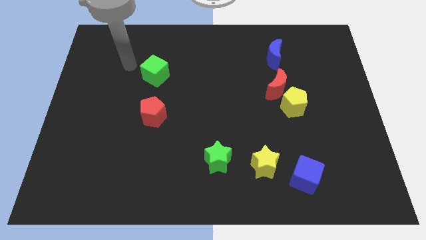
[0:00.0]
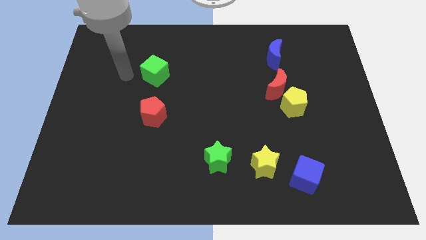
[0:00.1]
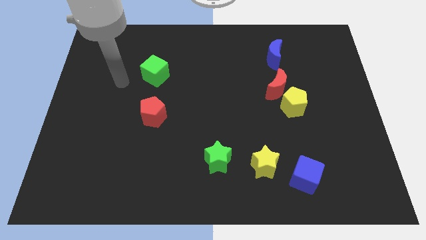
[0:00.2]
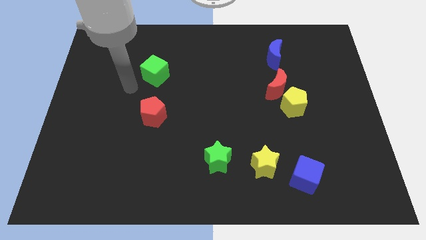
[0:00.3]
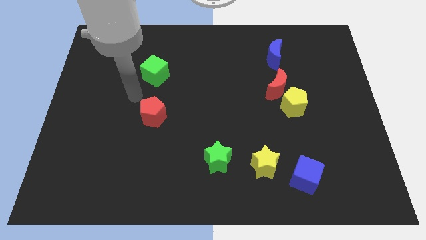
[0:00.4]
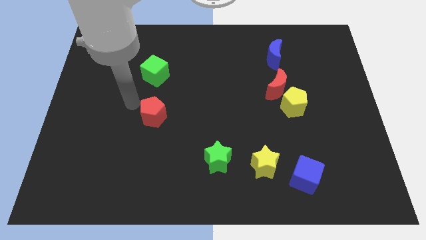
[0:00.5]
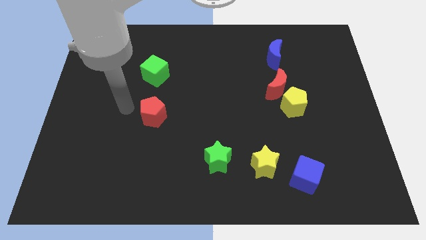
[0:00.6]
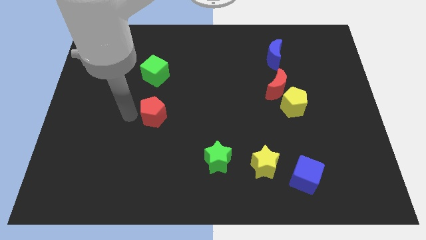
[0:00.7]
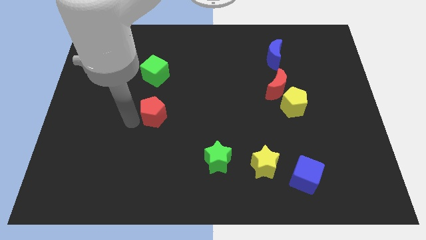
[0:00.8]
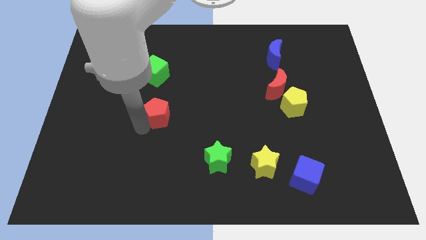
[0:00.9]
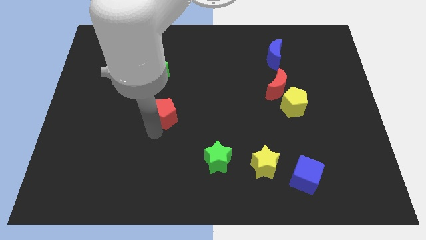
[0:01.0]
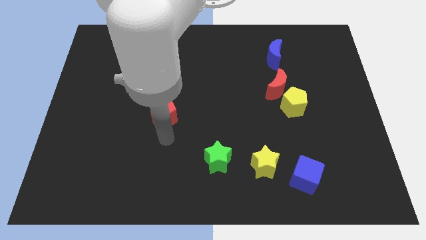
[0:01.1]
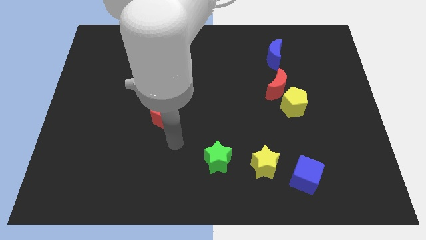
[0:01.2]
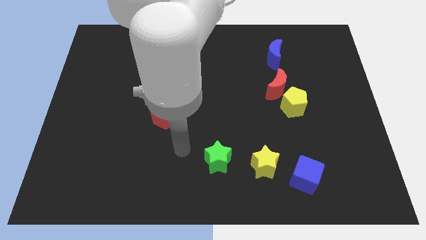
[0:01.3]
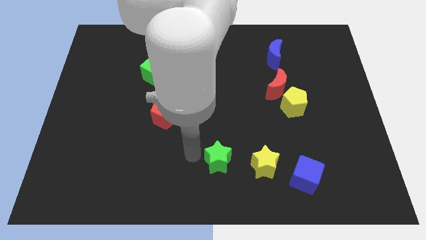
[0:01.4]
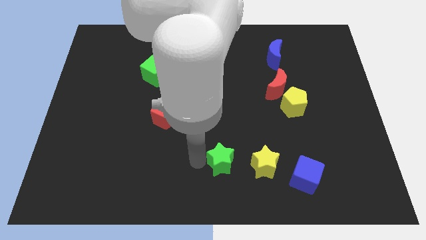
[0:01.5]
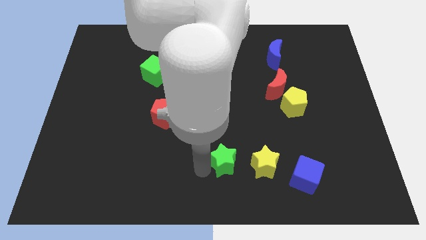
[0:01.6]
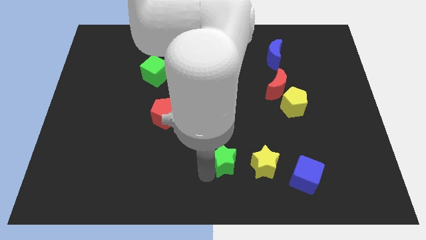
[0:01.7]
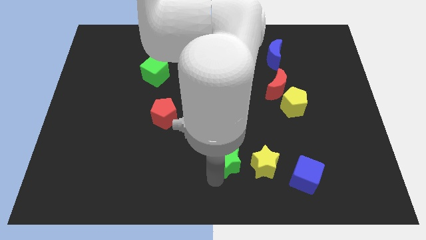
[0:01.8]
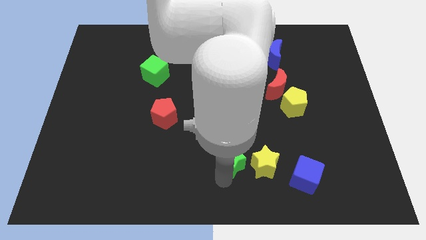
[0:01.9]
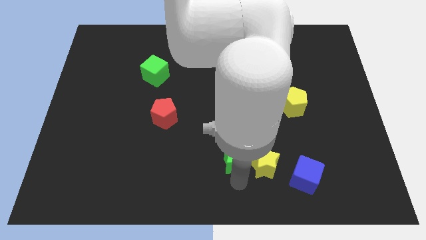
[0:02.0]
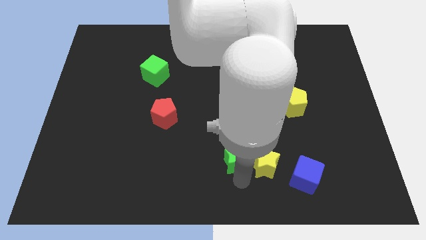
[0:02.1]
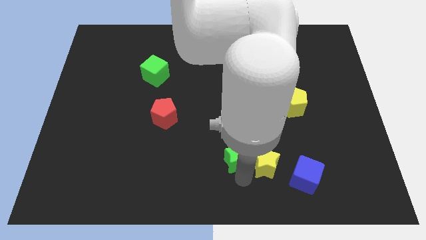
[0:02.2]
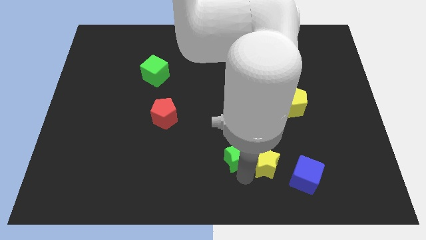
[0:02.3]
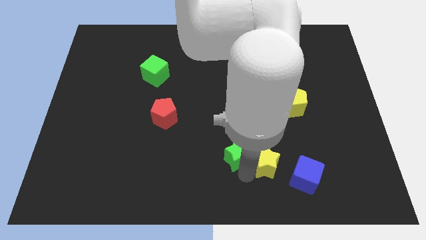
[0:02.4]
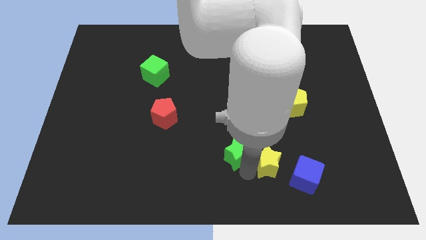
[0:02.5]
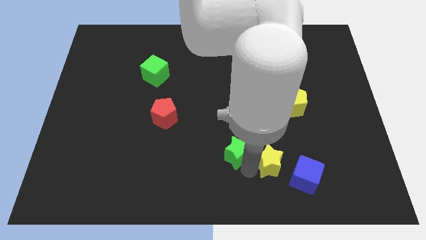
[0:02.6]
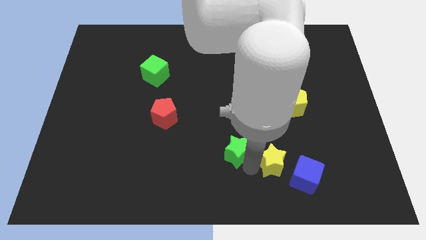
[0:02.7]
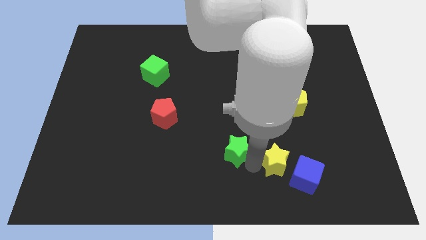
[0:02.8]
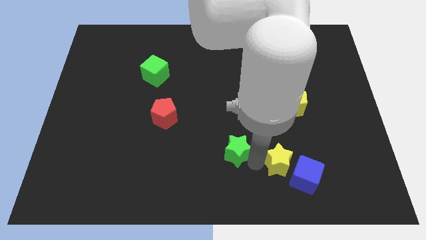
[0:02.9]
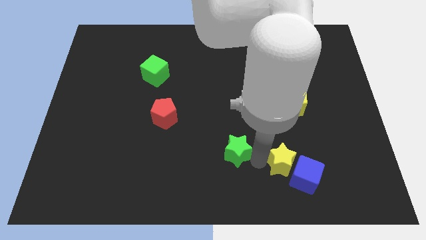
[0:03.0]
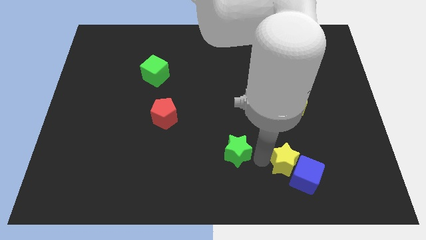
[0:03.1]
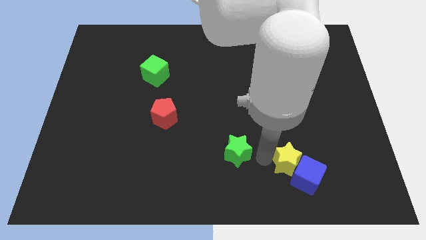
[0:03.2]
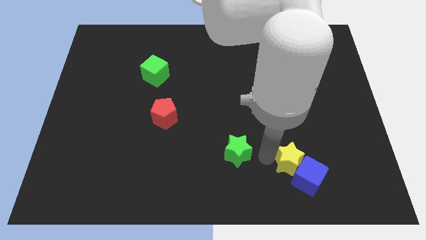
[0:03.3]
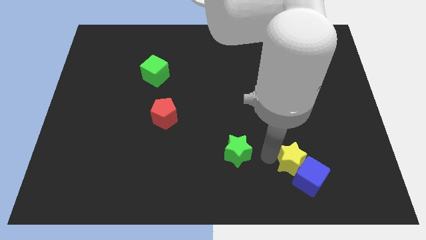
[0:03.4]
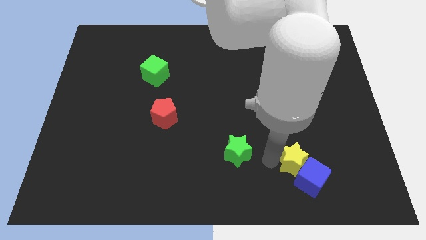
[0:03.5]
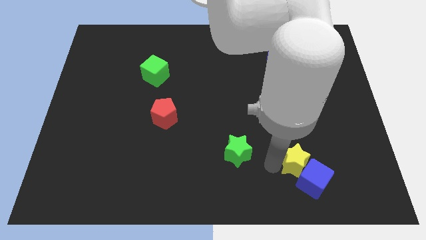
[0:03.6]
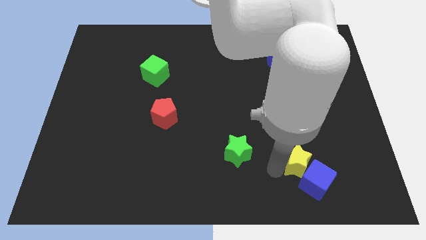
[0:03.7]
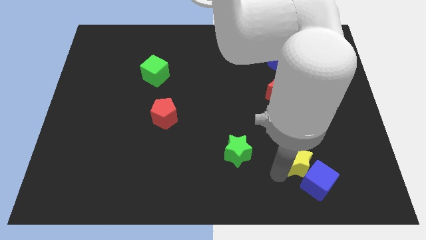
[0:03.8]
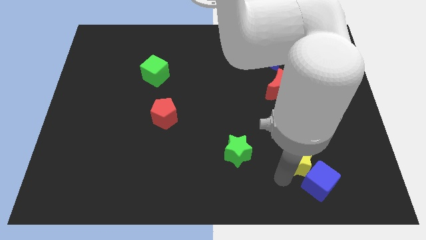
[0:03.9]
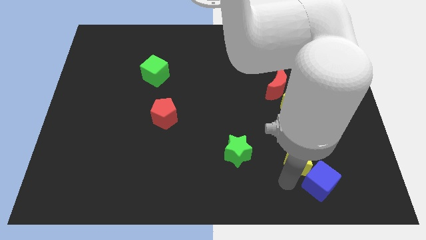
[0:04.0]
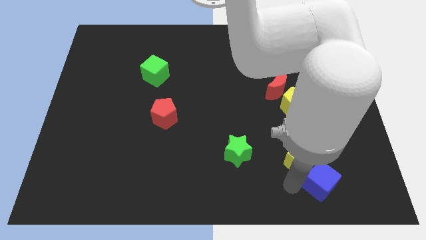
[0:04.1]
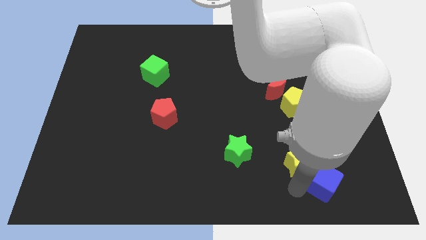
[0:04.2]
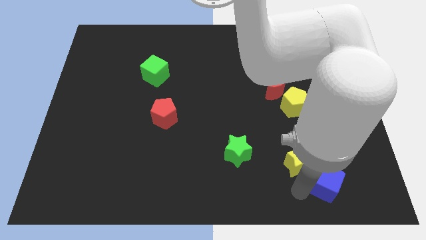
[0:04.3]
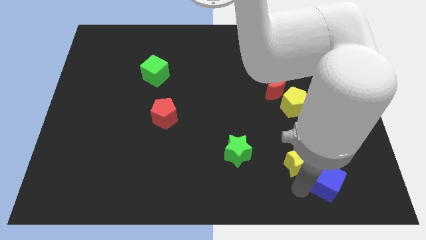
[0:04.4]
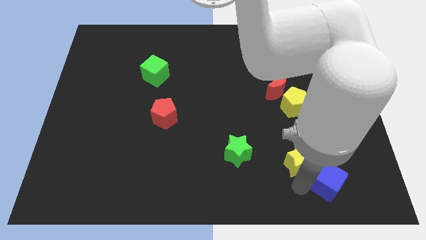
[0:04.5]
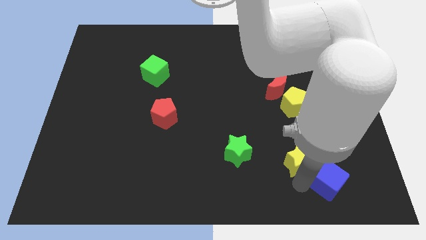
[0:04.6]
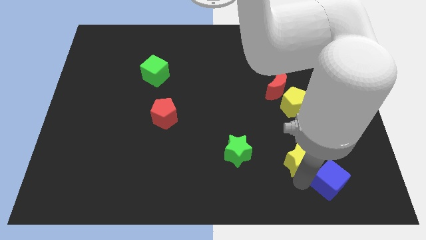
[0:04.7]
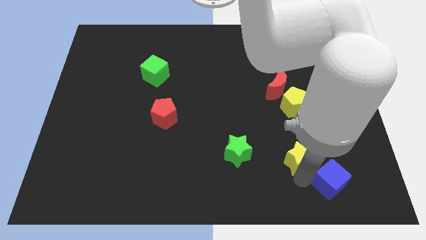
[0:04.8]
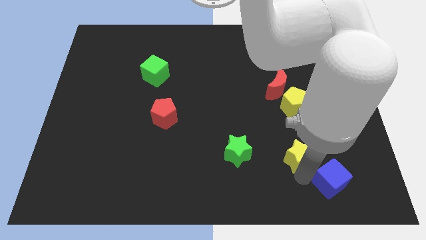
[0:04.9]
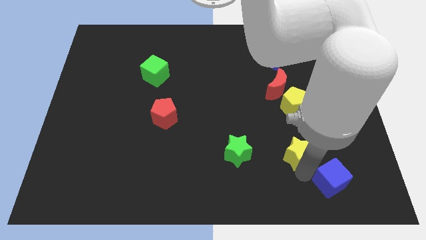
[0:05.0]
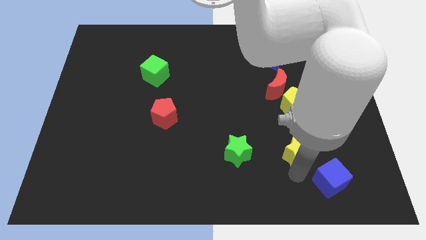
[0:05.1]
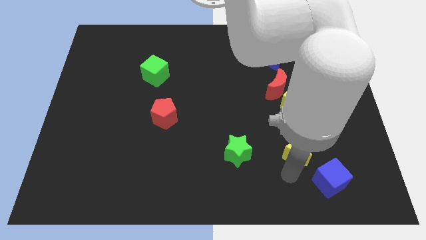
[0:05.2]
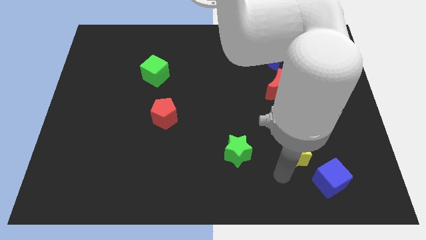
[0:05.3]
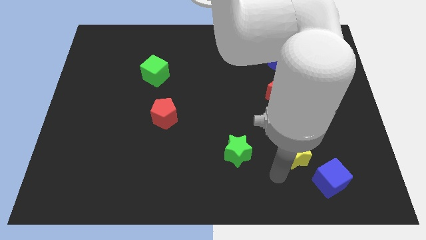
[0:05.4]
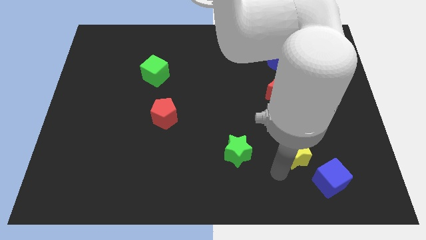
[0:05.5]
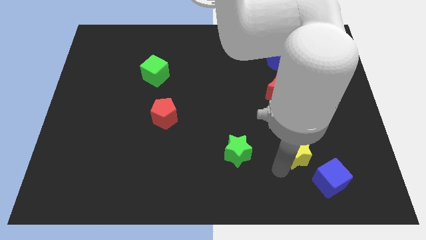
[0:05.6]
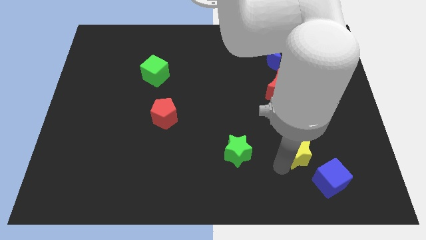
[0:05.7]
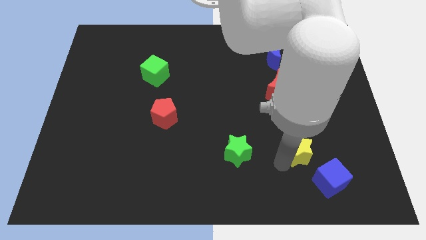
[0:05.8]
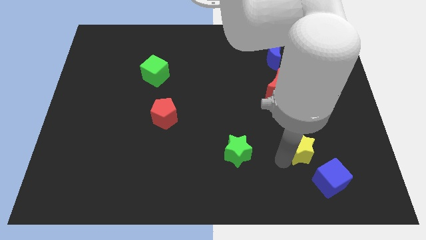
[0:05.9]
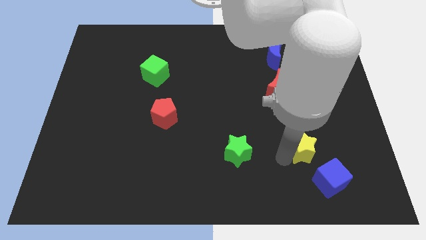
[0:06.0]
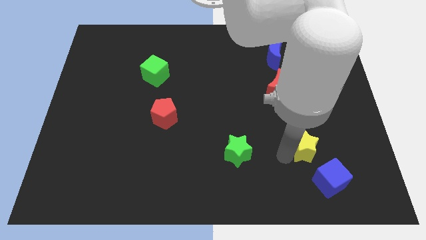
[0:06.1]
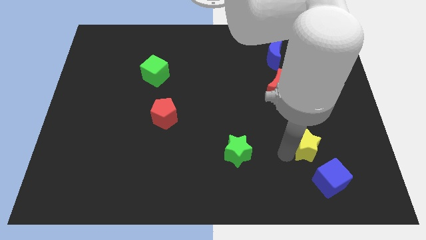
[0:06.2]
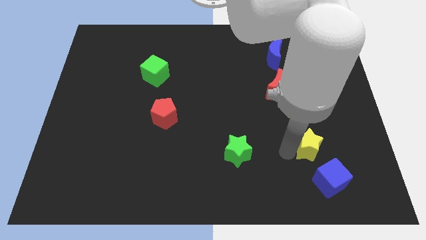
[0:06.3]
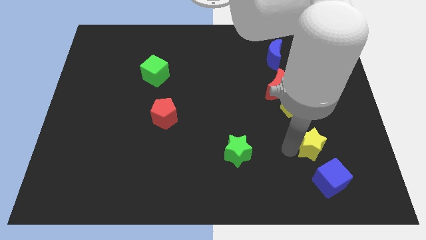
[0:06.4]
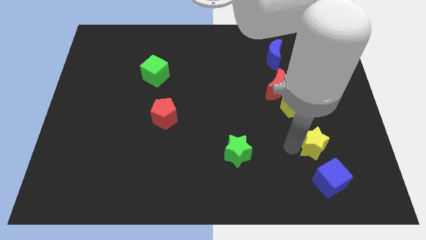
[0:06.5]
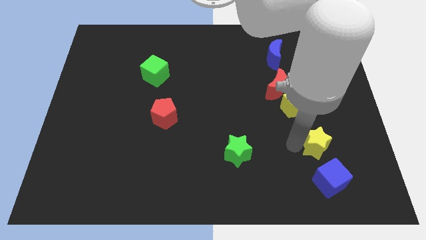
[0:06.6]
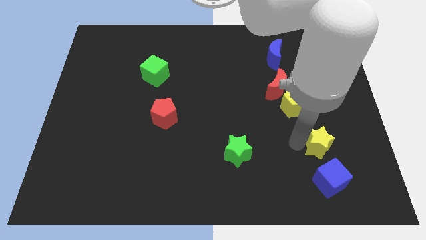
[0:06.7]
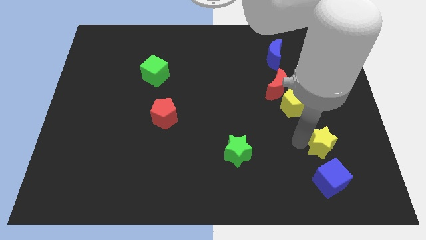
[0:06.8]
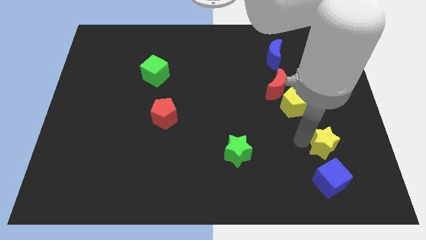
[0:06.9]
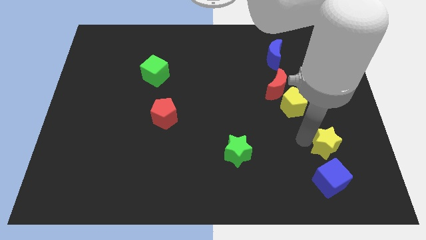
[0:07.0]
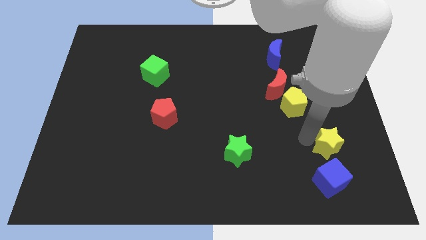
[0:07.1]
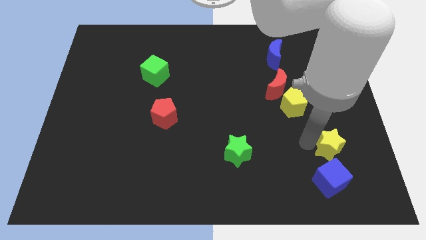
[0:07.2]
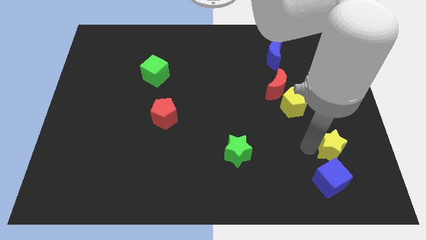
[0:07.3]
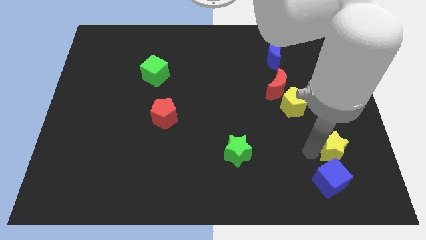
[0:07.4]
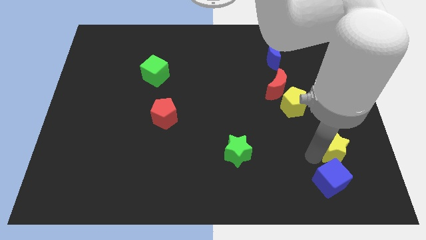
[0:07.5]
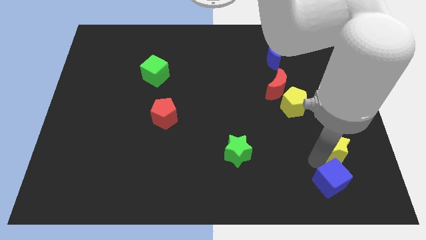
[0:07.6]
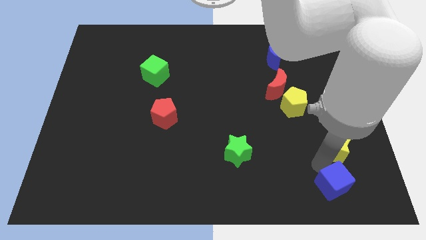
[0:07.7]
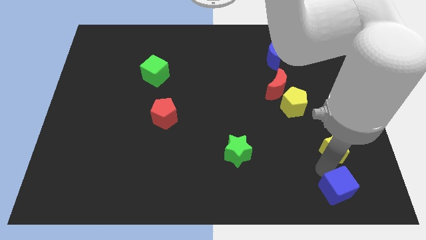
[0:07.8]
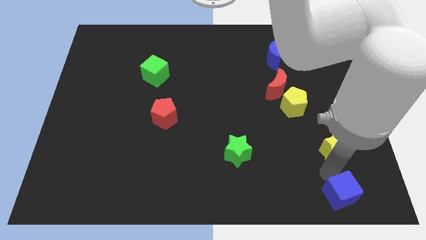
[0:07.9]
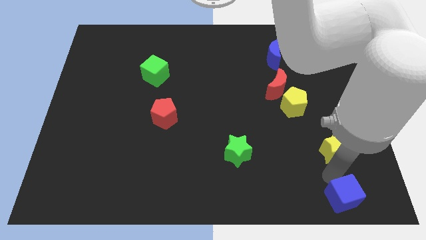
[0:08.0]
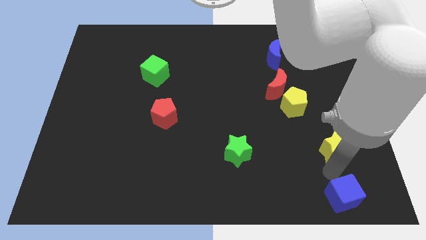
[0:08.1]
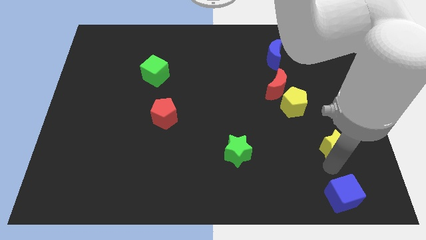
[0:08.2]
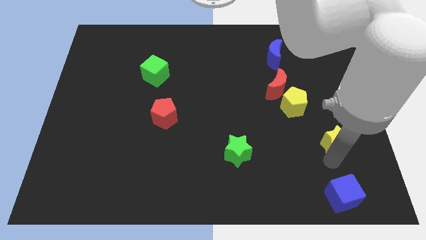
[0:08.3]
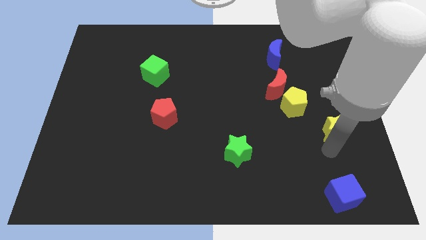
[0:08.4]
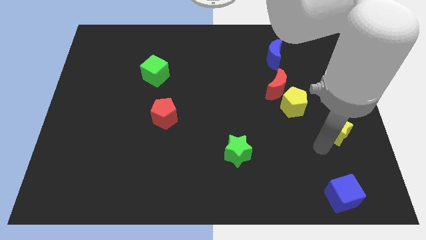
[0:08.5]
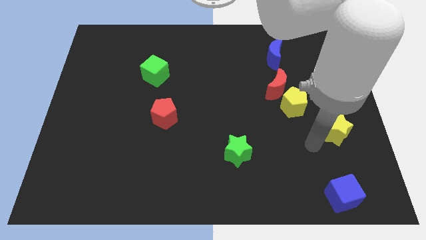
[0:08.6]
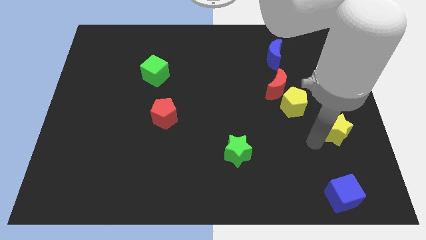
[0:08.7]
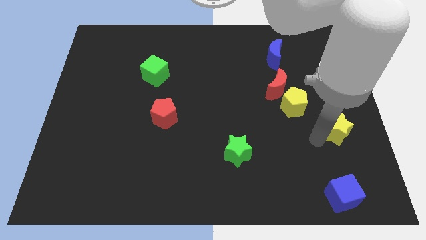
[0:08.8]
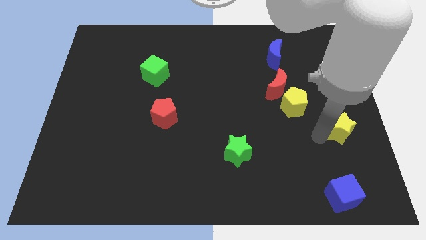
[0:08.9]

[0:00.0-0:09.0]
move the yellow star to the right side of the board
